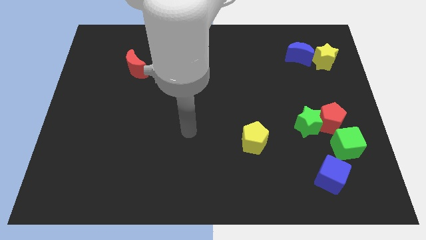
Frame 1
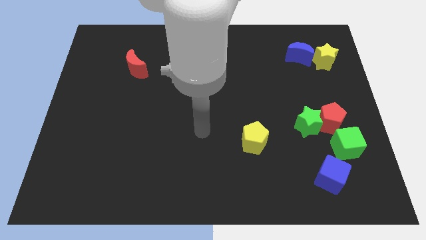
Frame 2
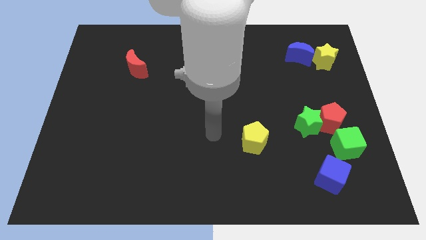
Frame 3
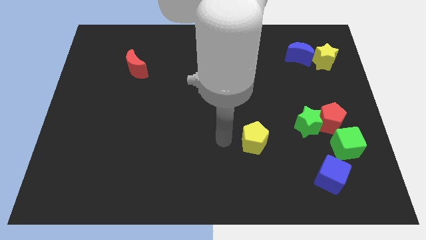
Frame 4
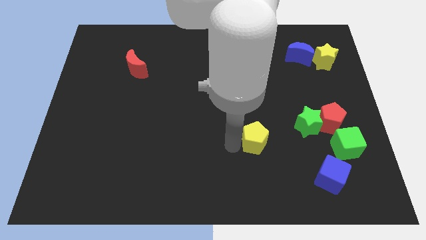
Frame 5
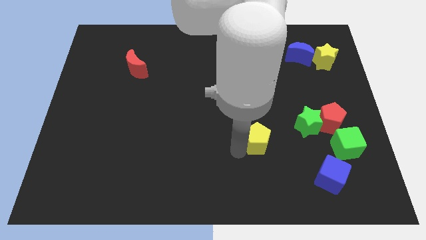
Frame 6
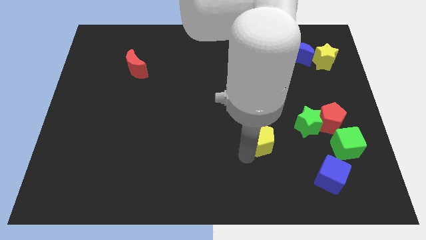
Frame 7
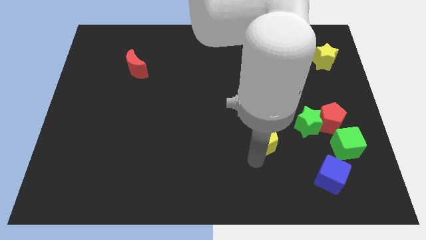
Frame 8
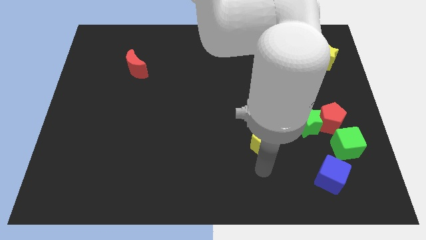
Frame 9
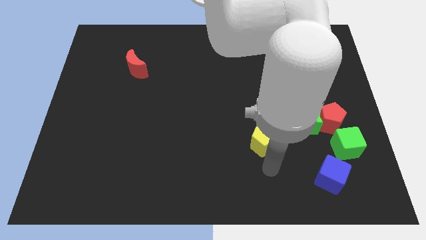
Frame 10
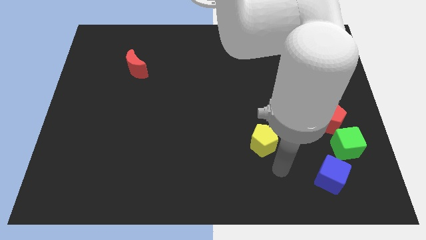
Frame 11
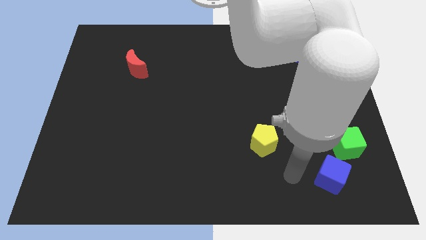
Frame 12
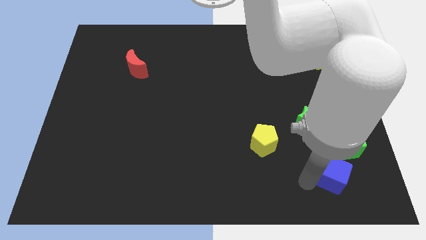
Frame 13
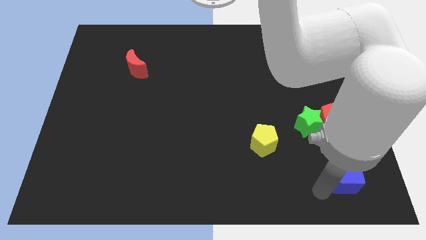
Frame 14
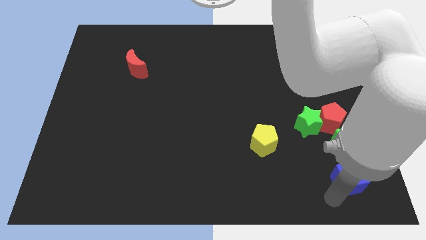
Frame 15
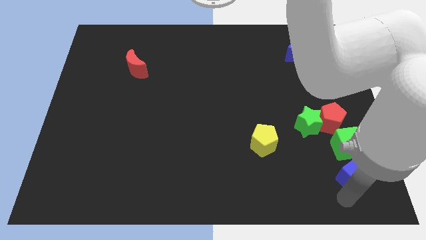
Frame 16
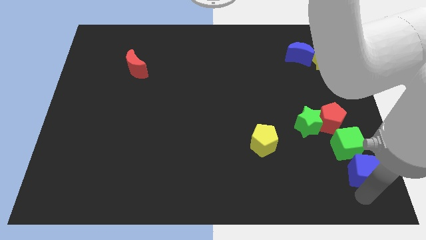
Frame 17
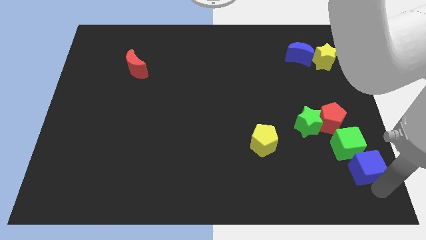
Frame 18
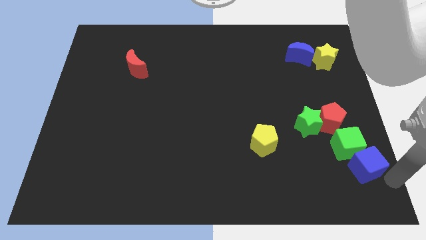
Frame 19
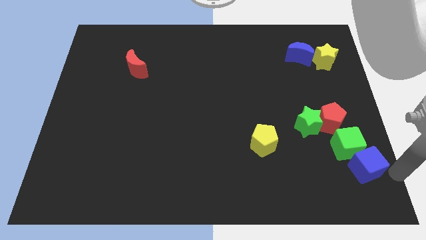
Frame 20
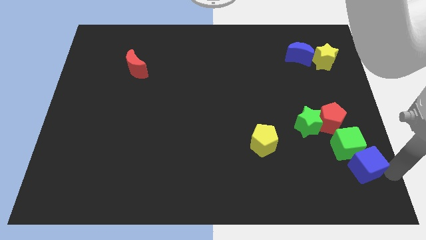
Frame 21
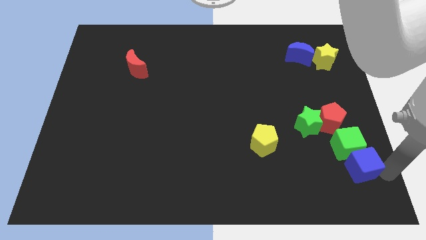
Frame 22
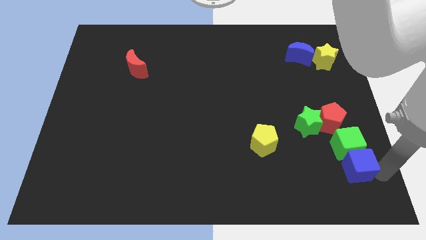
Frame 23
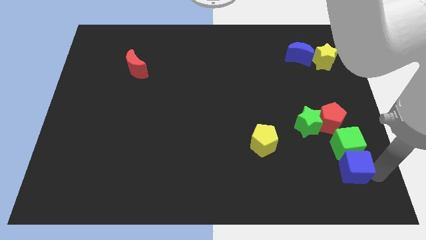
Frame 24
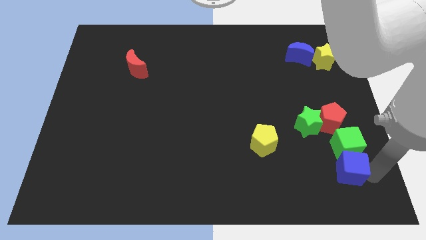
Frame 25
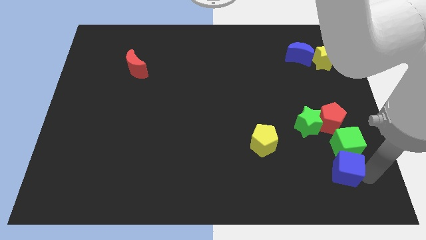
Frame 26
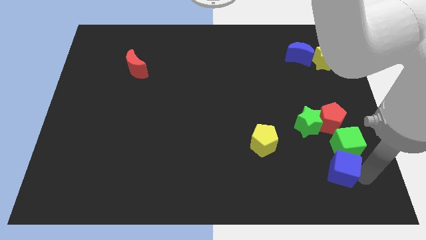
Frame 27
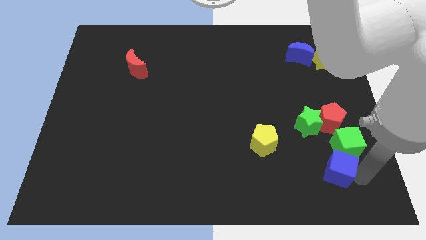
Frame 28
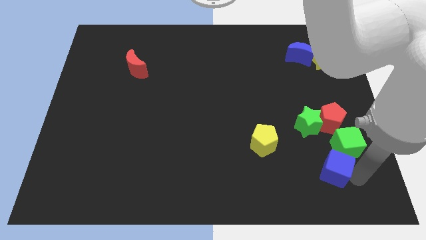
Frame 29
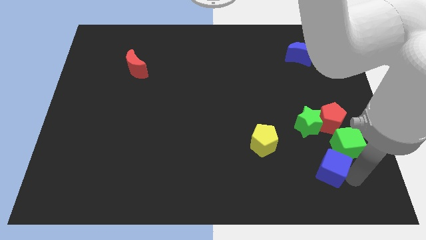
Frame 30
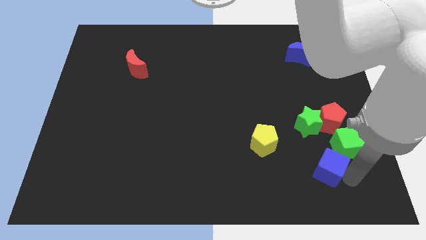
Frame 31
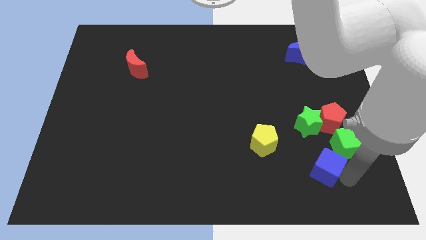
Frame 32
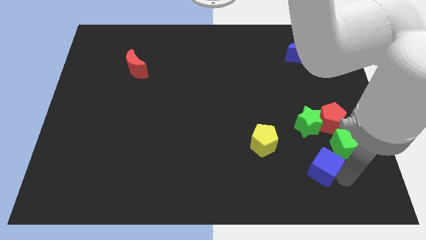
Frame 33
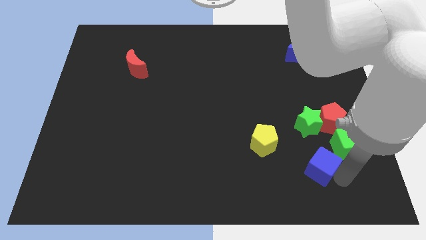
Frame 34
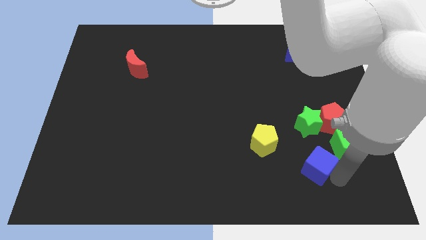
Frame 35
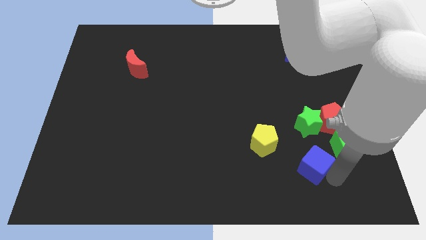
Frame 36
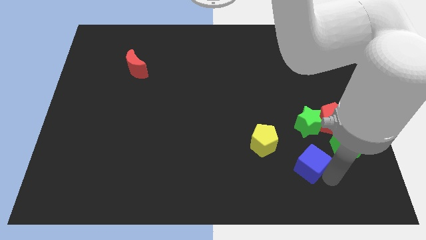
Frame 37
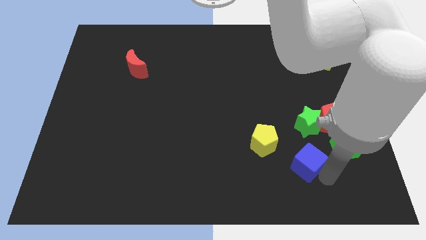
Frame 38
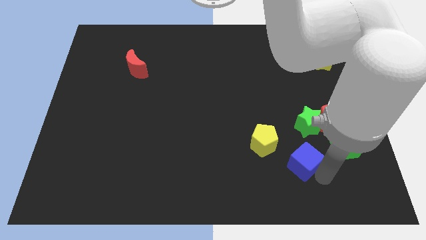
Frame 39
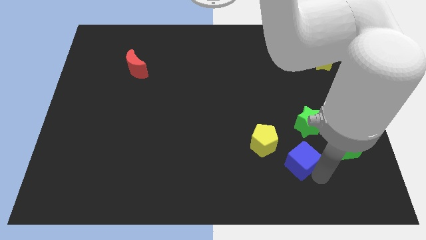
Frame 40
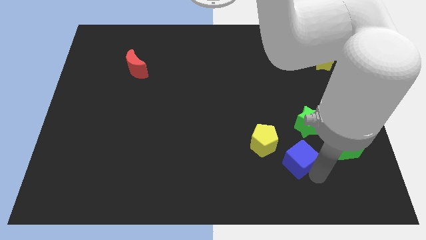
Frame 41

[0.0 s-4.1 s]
move the blue cube a bit upwards and to the left

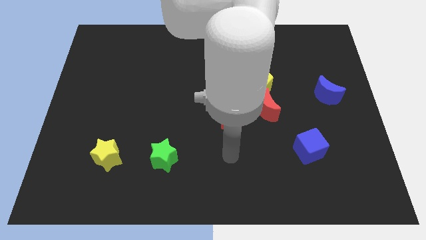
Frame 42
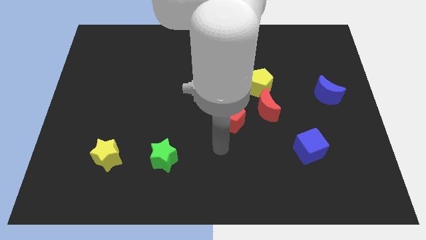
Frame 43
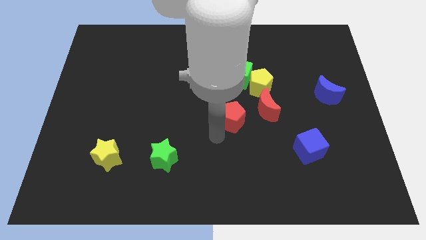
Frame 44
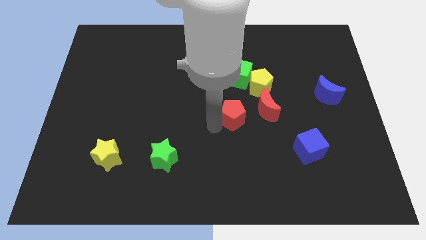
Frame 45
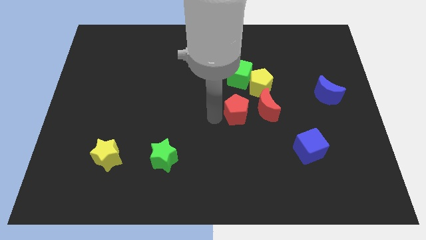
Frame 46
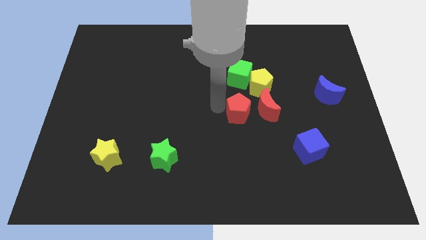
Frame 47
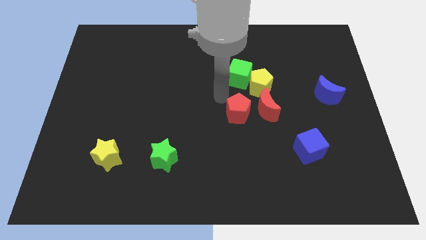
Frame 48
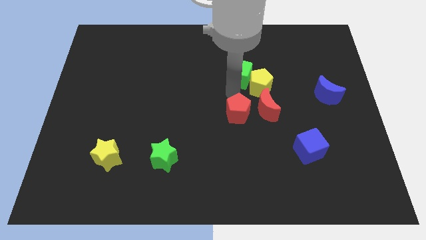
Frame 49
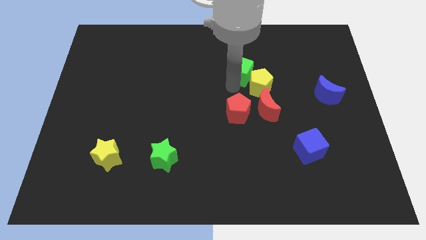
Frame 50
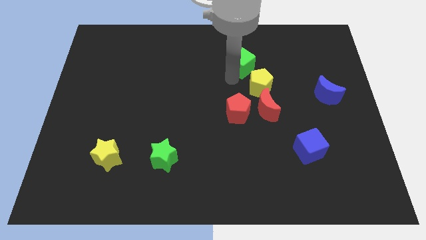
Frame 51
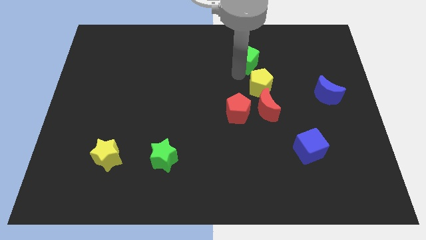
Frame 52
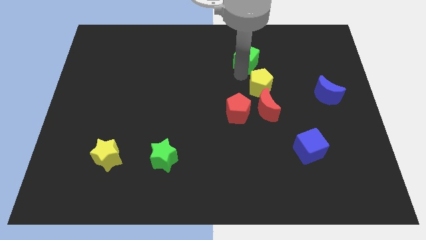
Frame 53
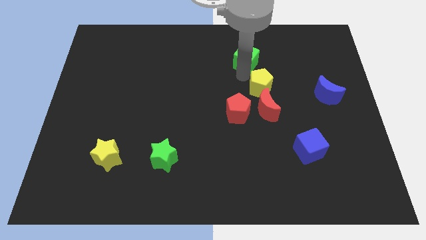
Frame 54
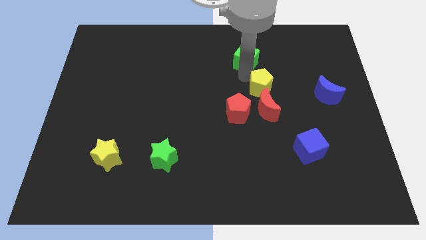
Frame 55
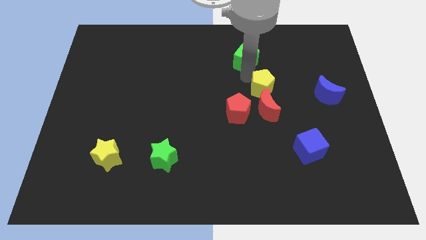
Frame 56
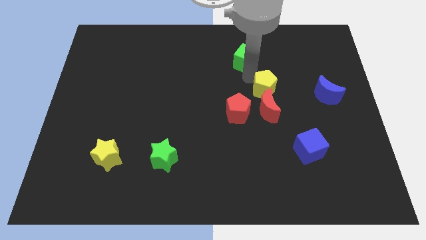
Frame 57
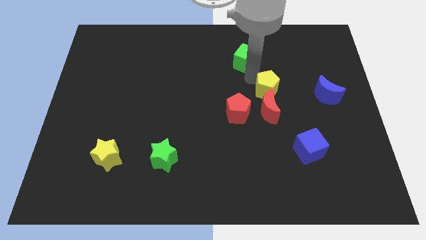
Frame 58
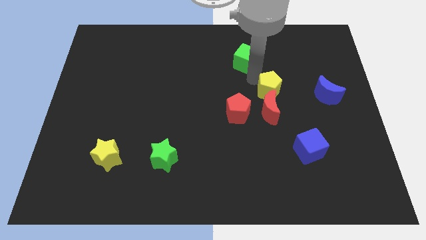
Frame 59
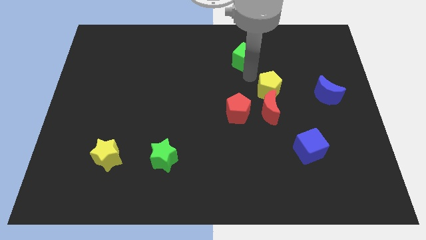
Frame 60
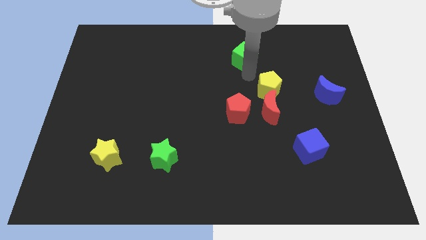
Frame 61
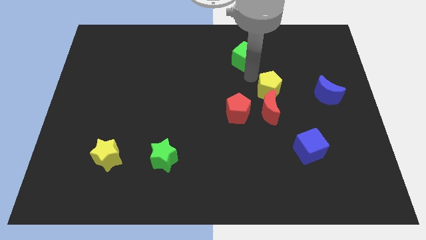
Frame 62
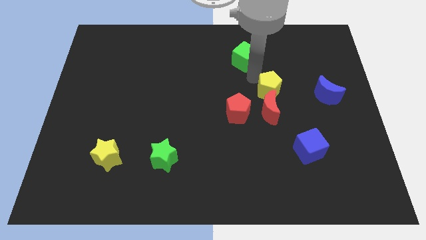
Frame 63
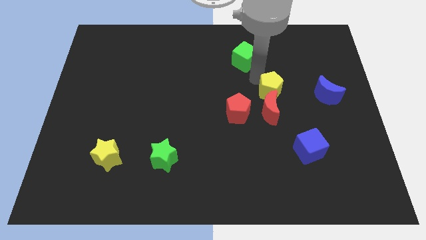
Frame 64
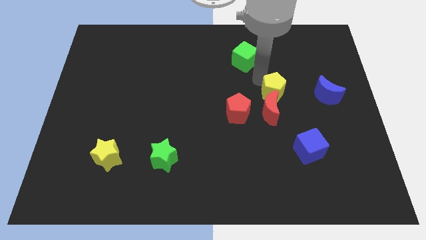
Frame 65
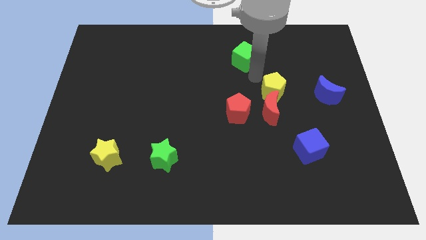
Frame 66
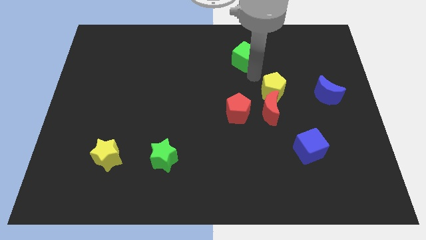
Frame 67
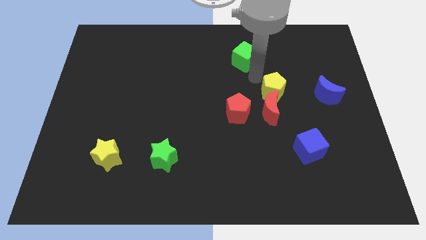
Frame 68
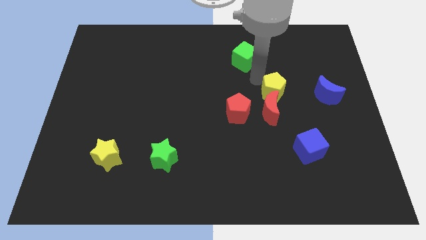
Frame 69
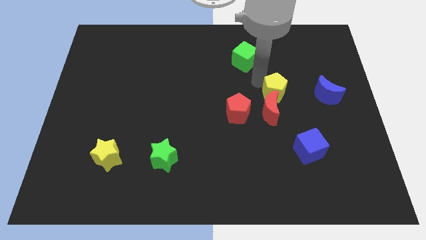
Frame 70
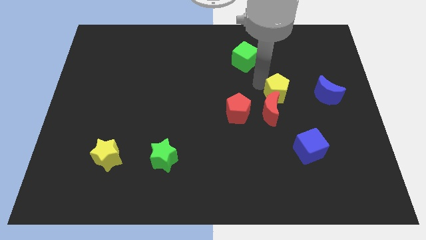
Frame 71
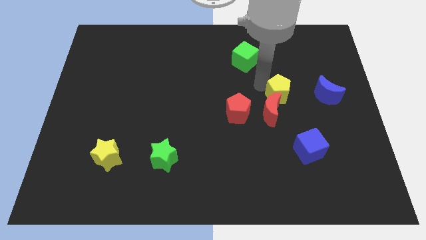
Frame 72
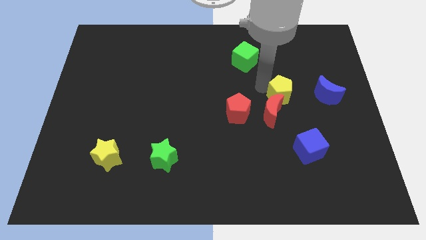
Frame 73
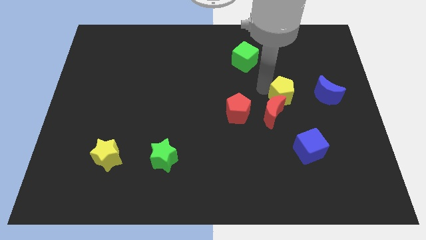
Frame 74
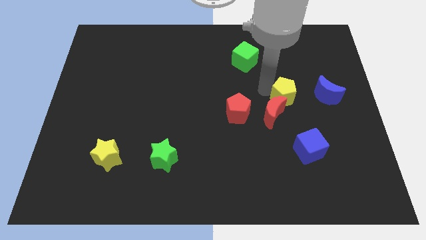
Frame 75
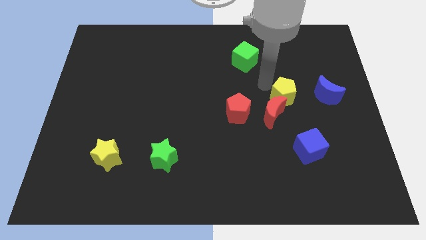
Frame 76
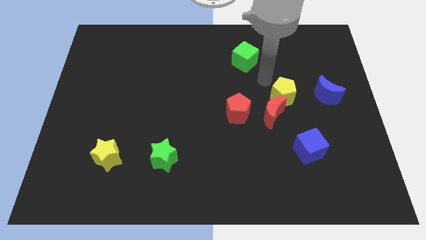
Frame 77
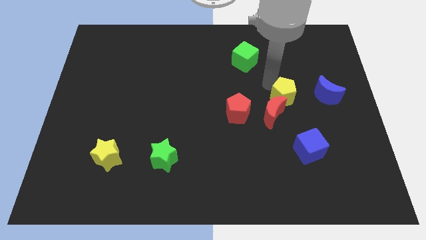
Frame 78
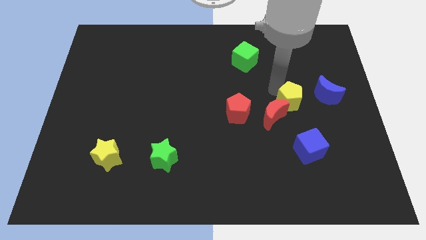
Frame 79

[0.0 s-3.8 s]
slide the yellow pentagon somewhat downwards and then right

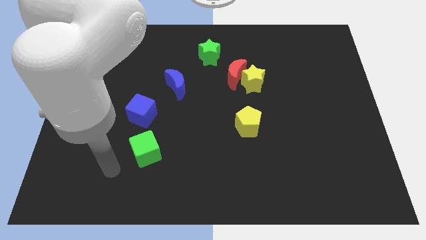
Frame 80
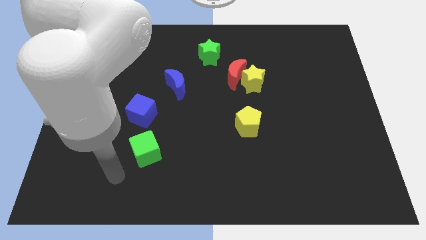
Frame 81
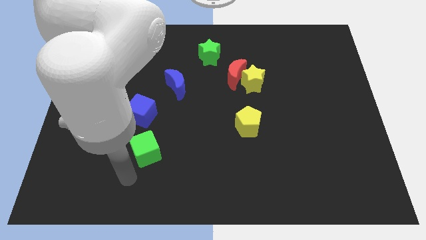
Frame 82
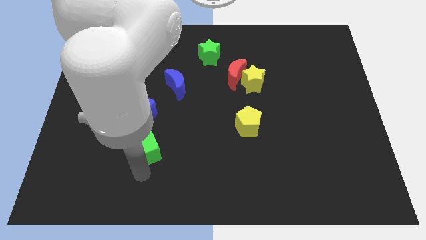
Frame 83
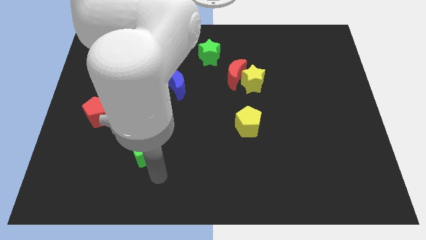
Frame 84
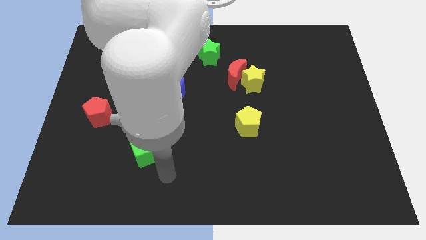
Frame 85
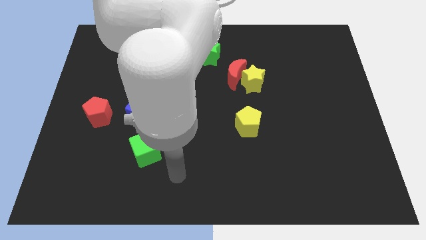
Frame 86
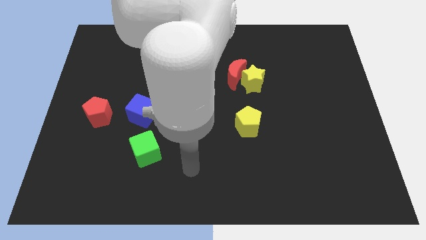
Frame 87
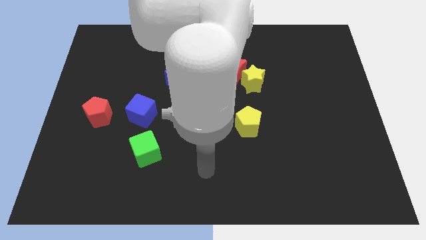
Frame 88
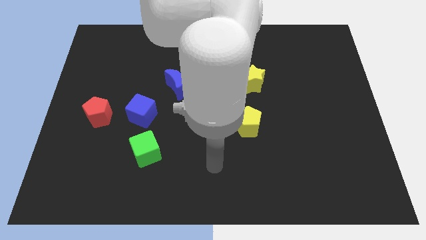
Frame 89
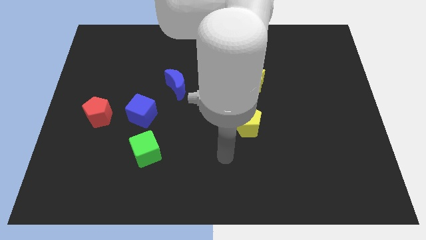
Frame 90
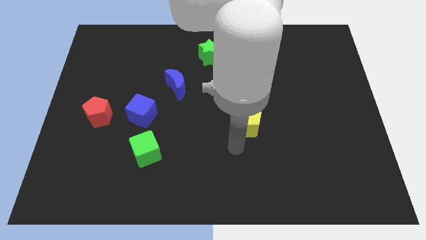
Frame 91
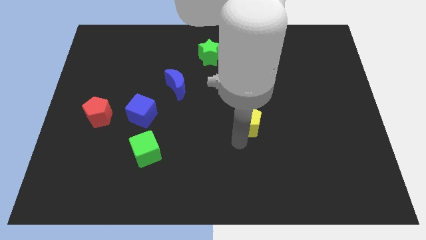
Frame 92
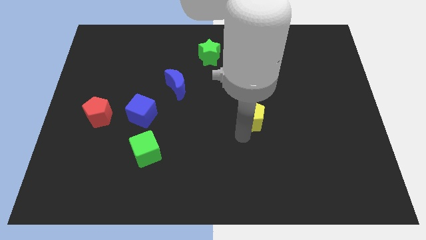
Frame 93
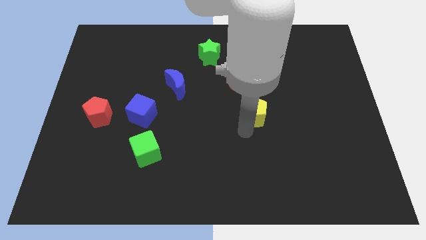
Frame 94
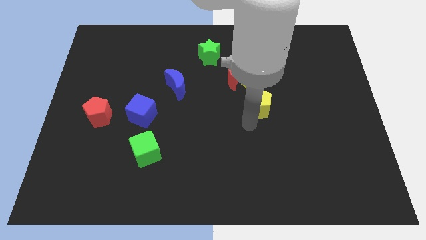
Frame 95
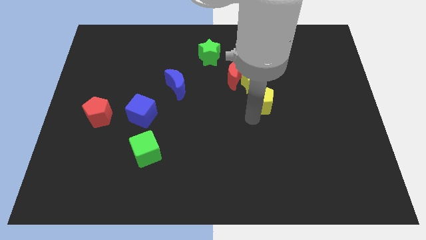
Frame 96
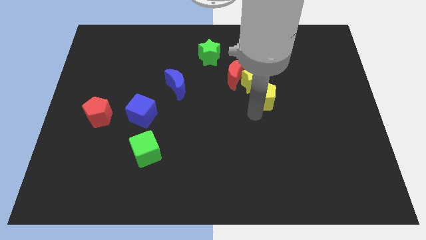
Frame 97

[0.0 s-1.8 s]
push the yellow pentagon a little upwards
